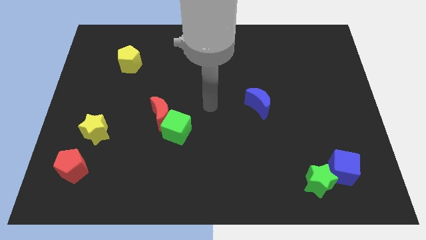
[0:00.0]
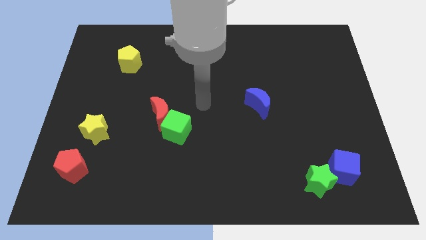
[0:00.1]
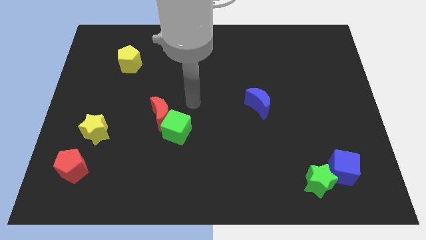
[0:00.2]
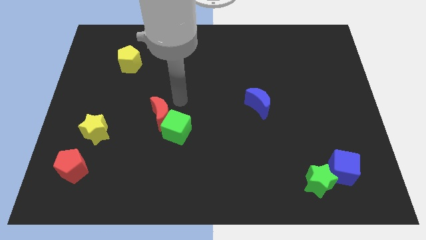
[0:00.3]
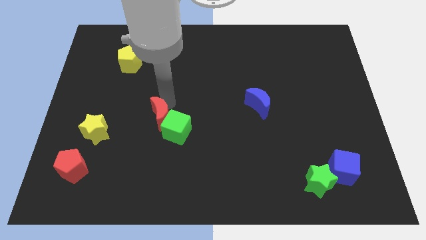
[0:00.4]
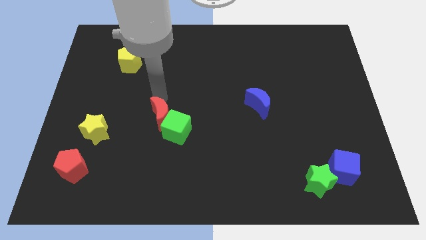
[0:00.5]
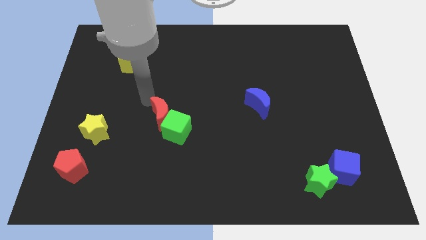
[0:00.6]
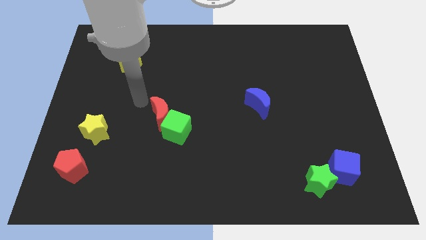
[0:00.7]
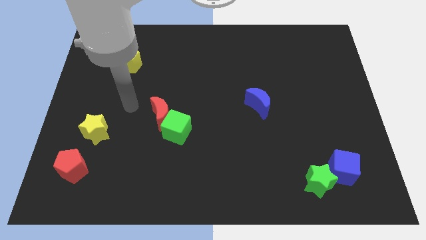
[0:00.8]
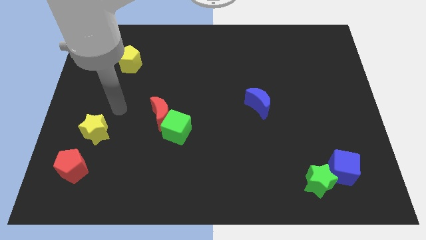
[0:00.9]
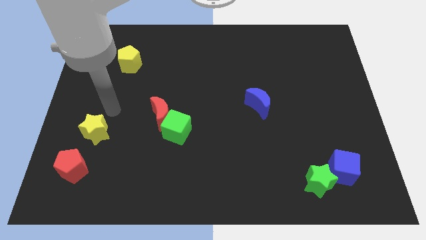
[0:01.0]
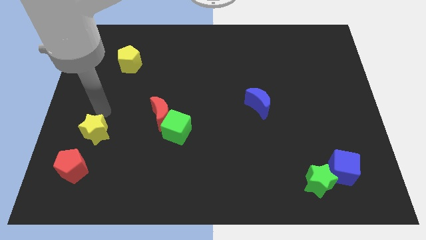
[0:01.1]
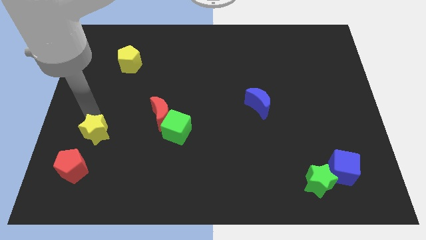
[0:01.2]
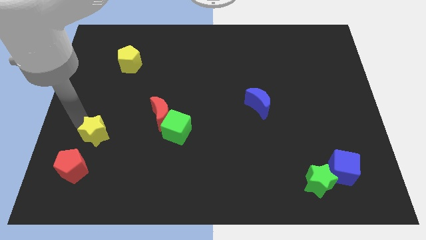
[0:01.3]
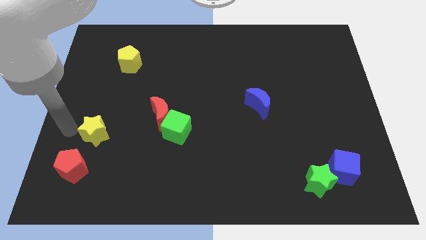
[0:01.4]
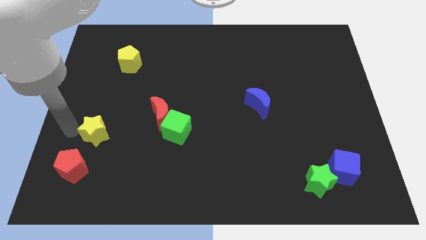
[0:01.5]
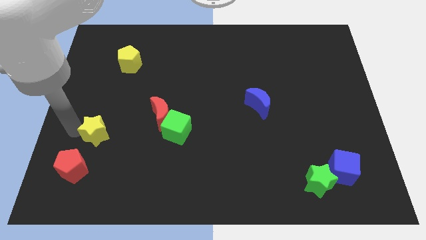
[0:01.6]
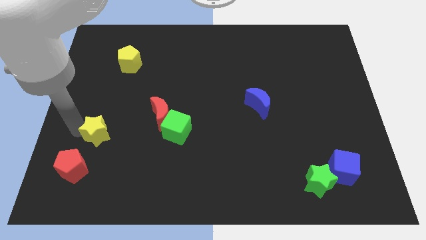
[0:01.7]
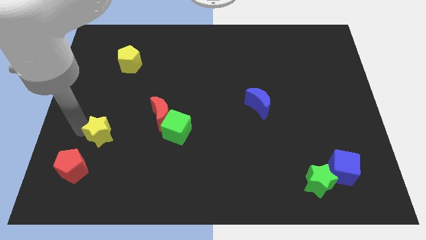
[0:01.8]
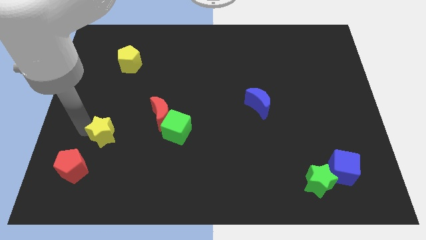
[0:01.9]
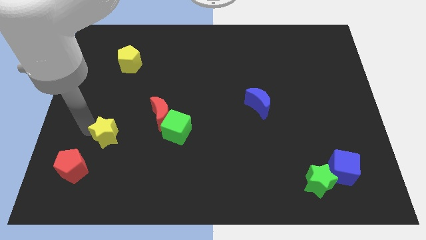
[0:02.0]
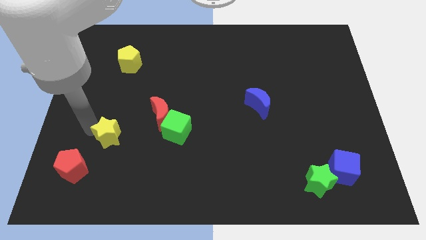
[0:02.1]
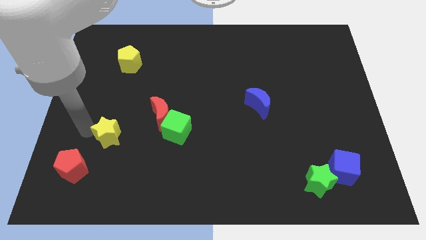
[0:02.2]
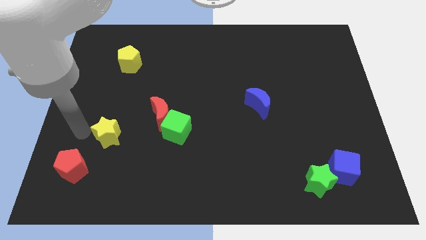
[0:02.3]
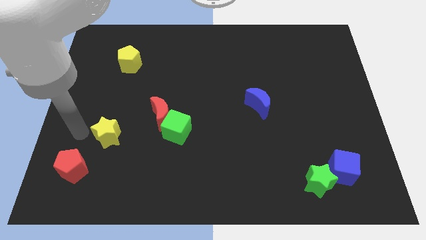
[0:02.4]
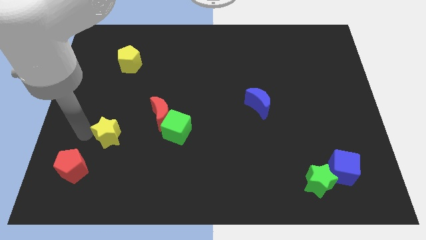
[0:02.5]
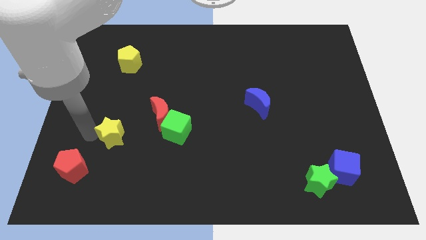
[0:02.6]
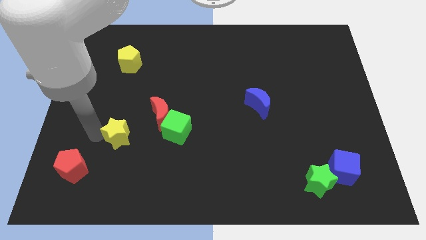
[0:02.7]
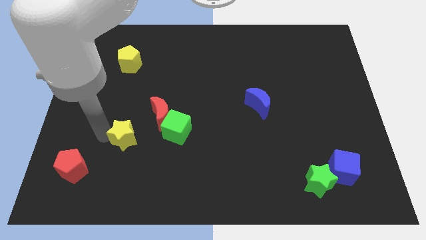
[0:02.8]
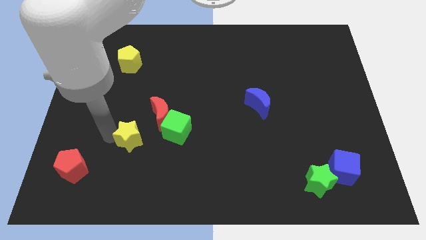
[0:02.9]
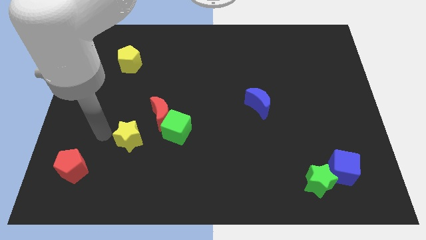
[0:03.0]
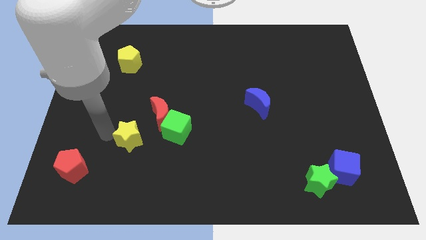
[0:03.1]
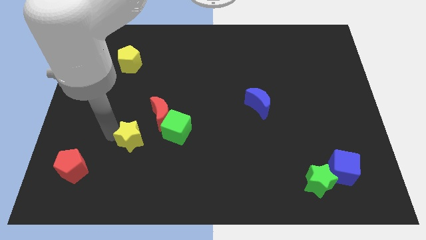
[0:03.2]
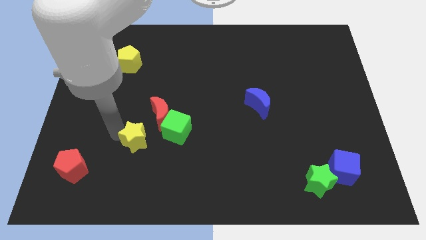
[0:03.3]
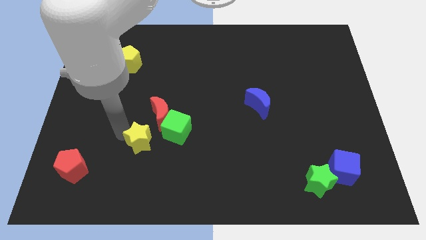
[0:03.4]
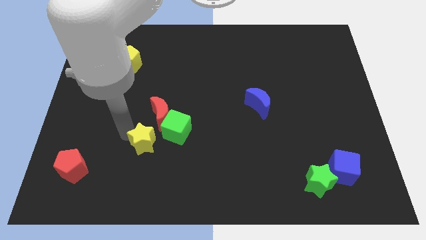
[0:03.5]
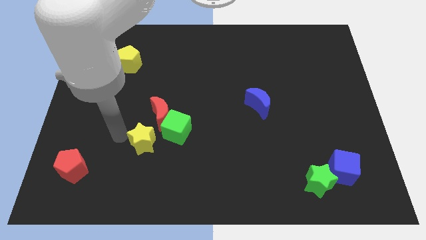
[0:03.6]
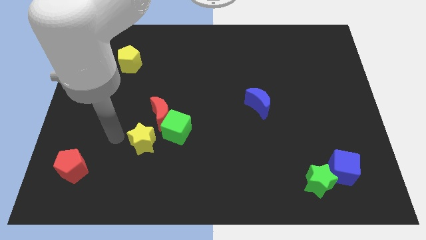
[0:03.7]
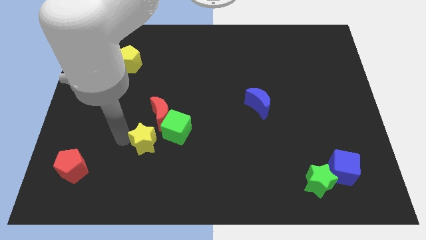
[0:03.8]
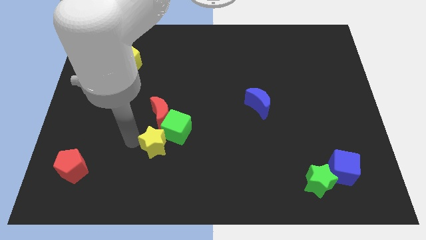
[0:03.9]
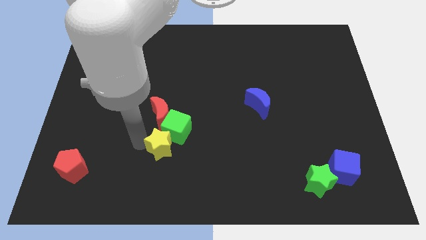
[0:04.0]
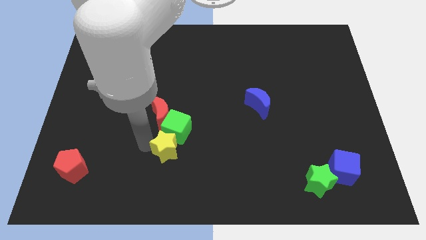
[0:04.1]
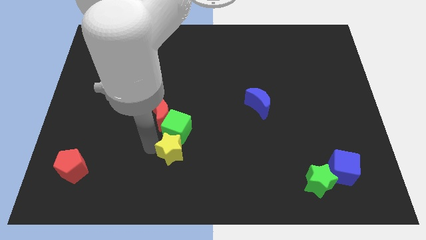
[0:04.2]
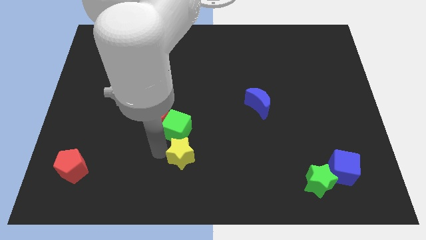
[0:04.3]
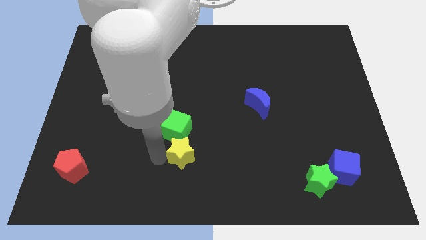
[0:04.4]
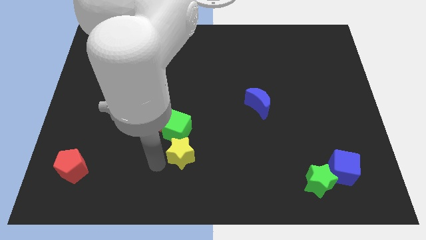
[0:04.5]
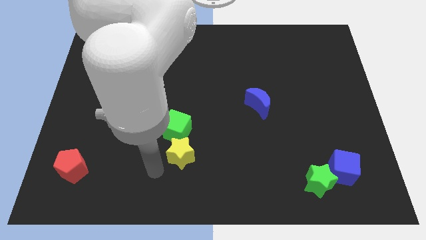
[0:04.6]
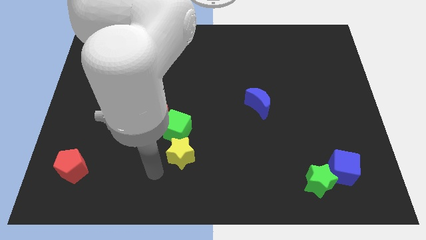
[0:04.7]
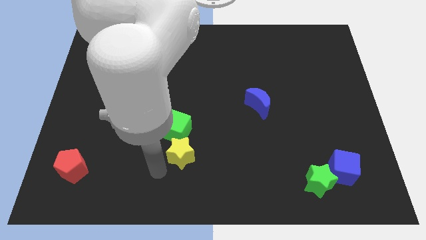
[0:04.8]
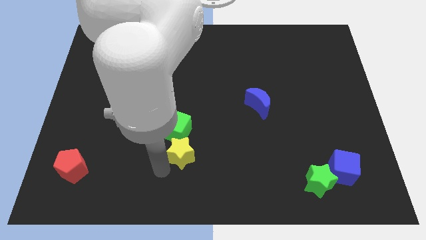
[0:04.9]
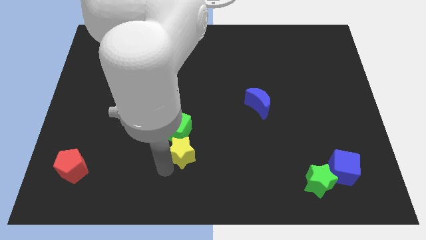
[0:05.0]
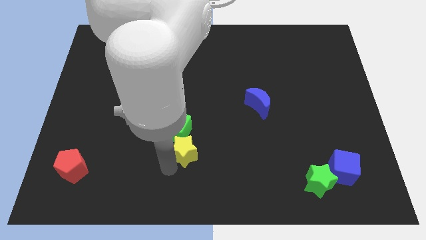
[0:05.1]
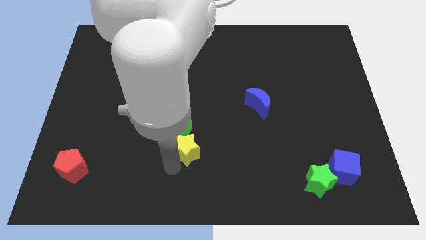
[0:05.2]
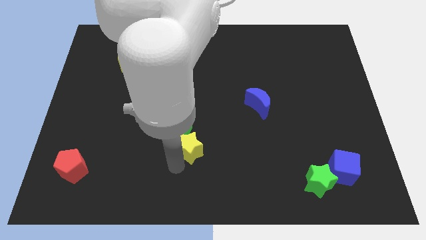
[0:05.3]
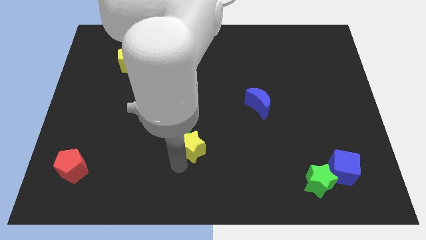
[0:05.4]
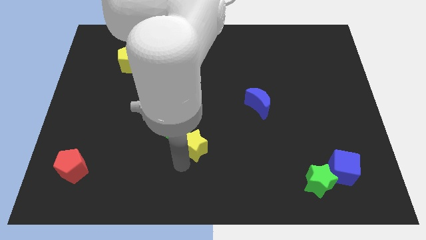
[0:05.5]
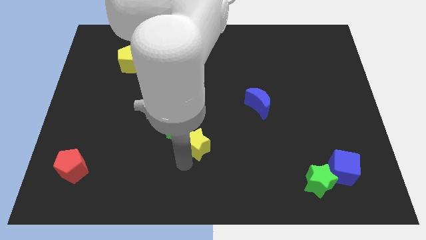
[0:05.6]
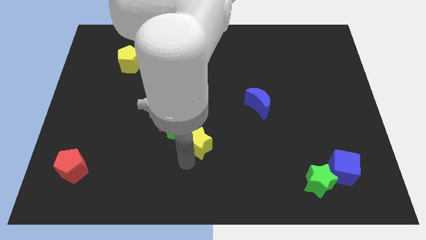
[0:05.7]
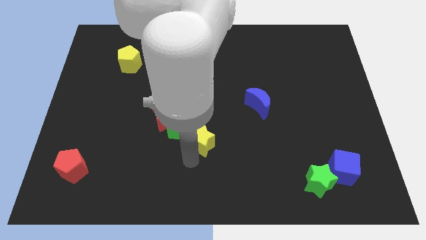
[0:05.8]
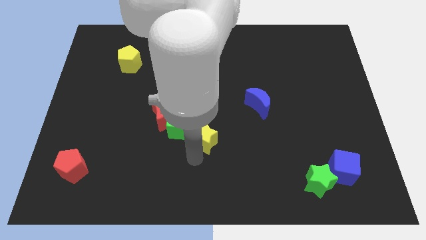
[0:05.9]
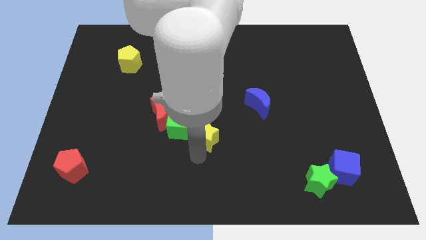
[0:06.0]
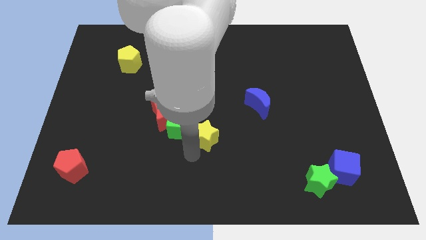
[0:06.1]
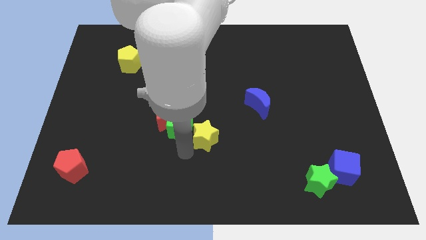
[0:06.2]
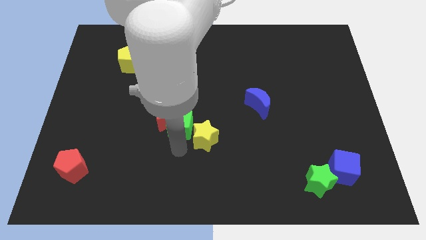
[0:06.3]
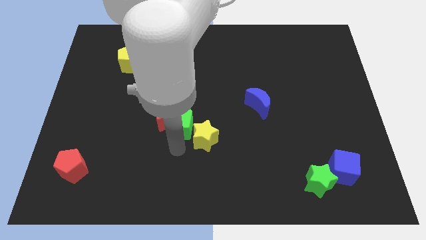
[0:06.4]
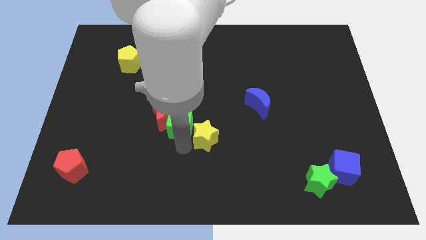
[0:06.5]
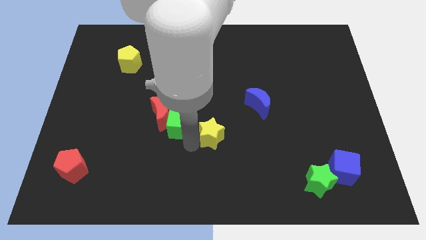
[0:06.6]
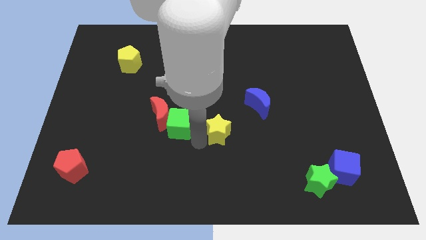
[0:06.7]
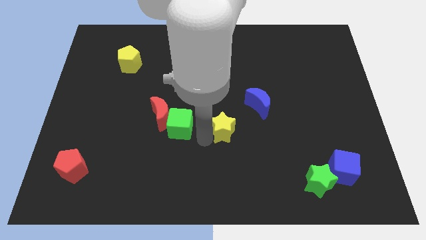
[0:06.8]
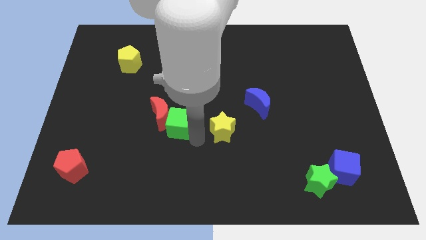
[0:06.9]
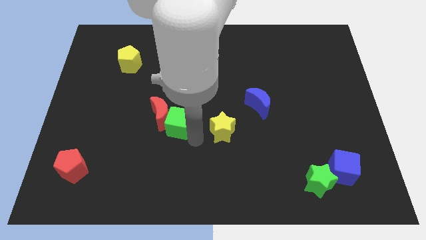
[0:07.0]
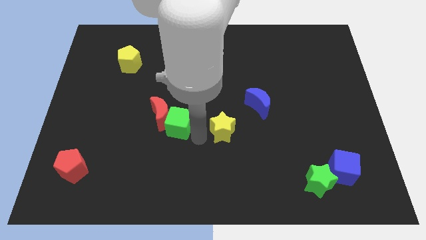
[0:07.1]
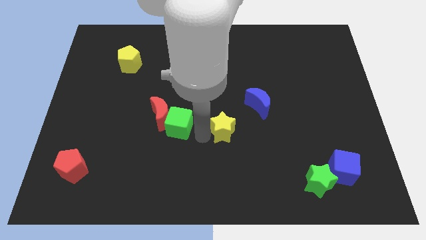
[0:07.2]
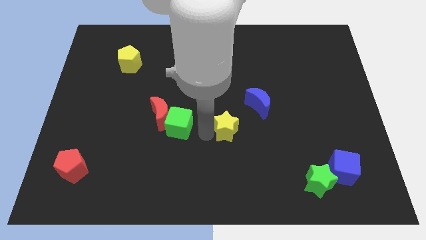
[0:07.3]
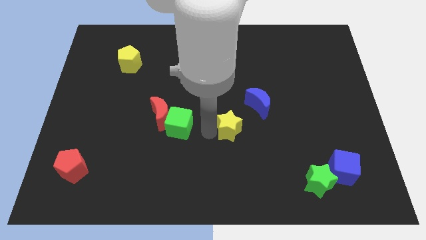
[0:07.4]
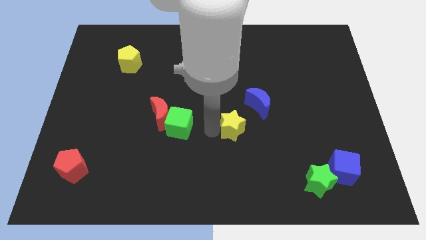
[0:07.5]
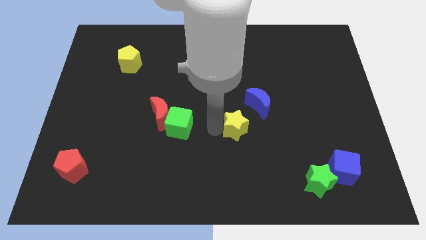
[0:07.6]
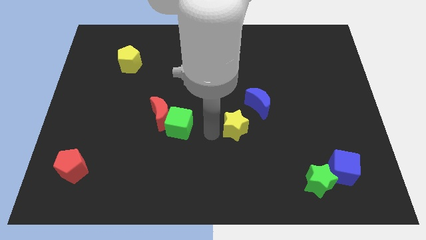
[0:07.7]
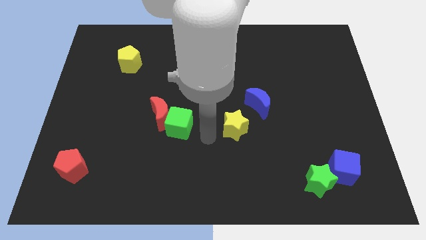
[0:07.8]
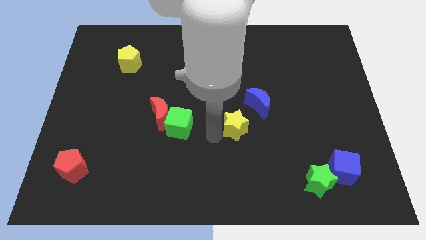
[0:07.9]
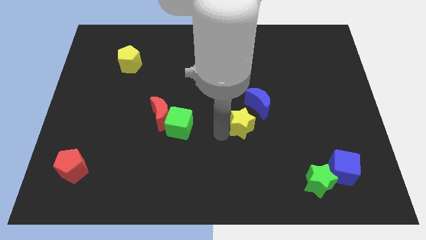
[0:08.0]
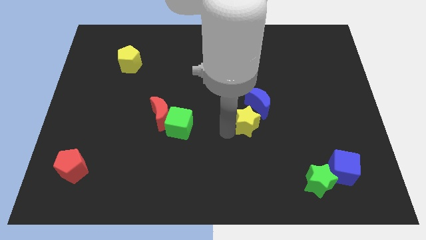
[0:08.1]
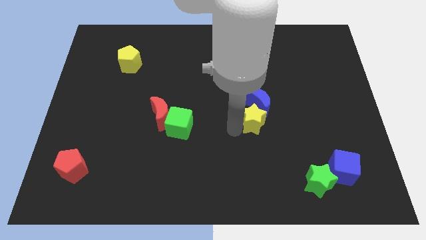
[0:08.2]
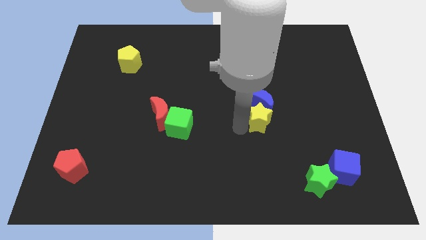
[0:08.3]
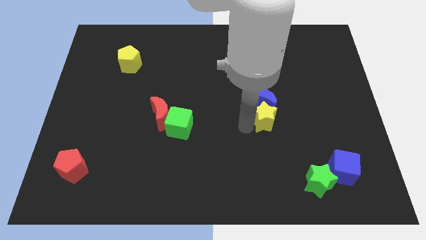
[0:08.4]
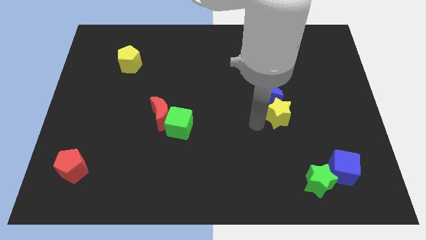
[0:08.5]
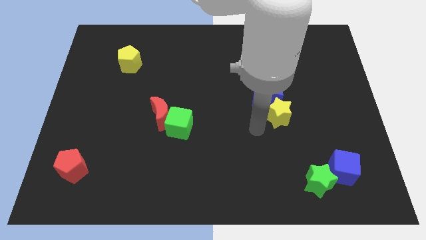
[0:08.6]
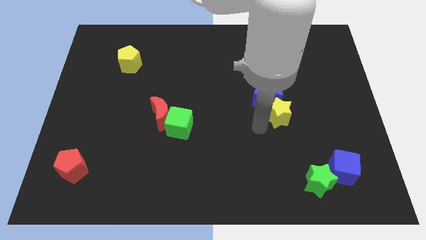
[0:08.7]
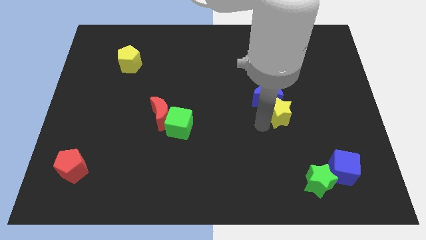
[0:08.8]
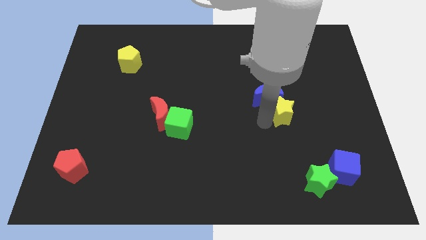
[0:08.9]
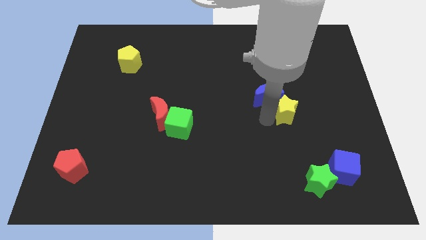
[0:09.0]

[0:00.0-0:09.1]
put the yellow star right of the blue moon
